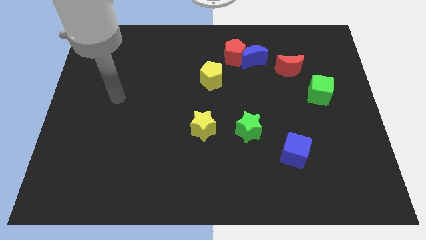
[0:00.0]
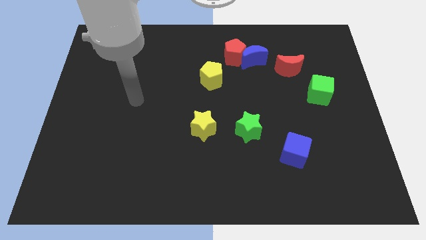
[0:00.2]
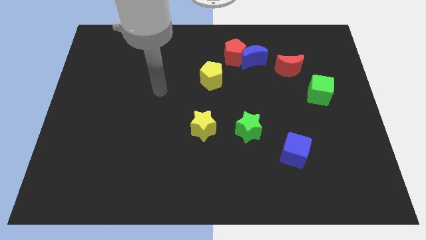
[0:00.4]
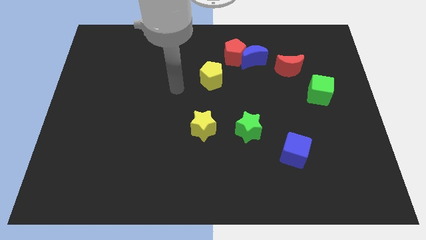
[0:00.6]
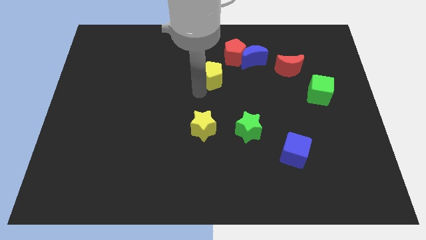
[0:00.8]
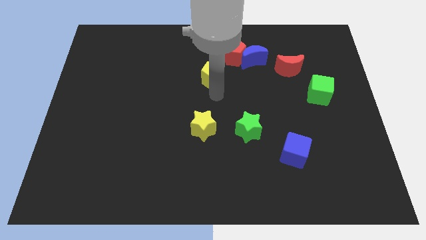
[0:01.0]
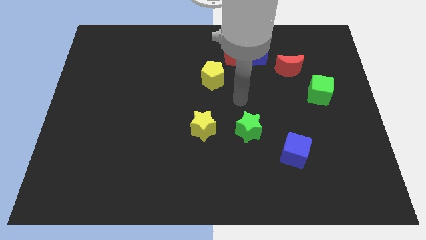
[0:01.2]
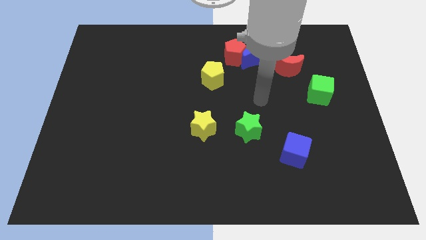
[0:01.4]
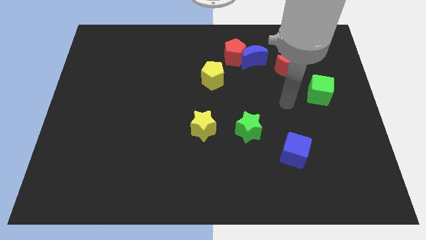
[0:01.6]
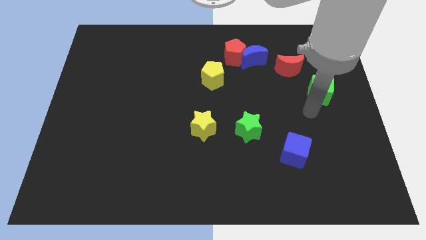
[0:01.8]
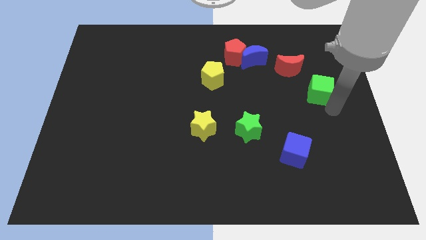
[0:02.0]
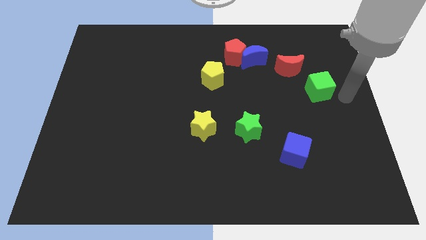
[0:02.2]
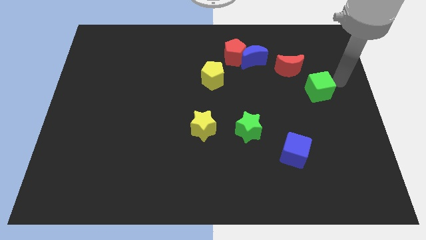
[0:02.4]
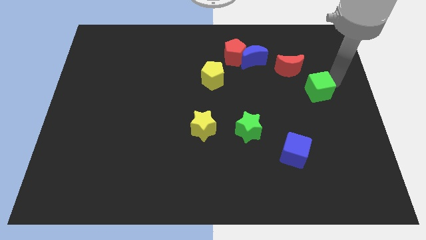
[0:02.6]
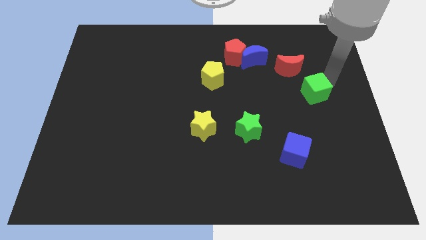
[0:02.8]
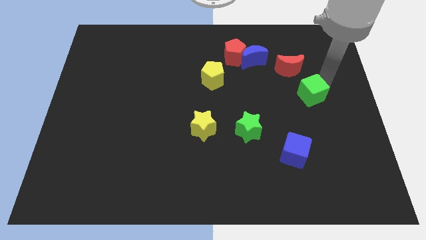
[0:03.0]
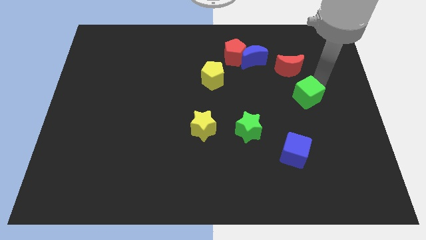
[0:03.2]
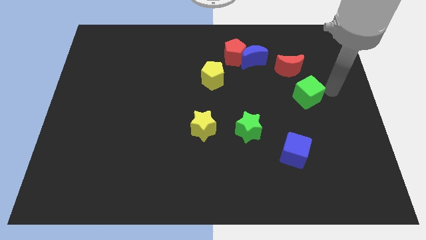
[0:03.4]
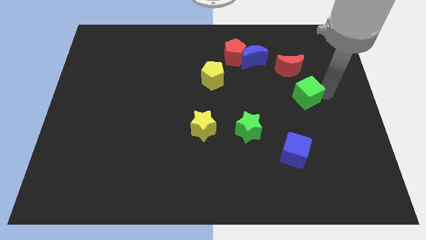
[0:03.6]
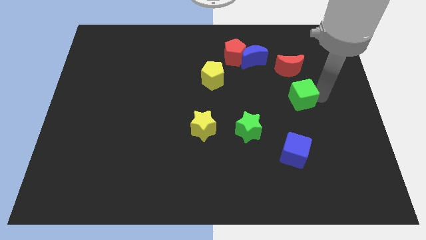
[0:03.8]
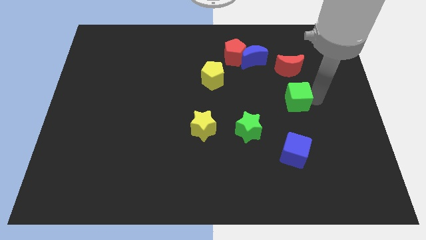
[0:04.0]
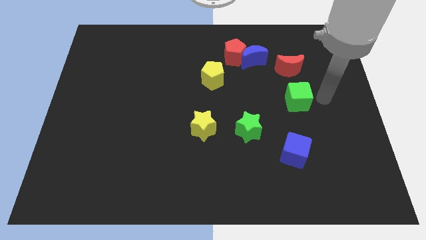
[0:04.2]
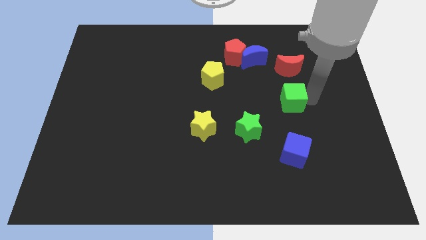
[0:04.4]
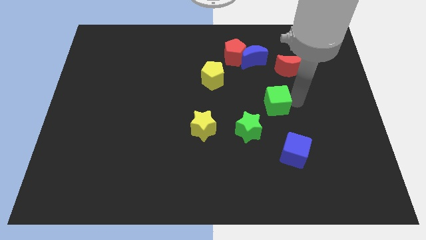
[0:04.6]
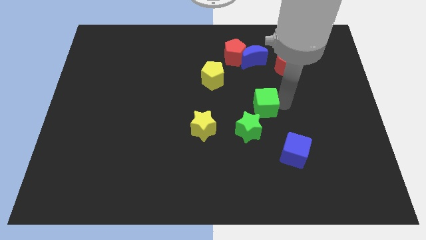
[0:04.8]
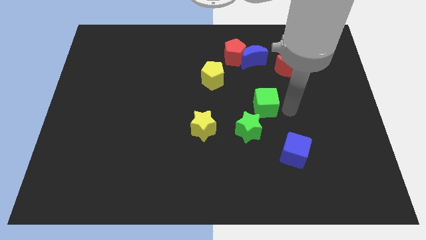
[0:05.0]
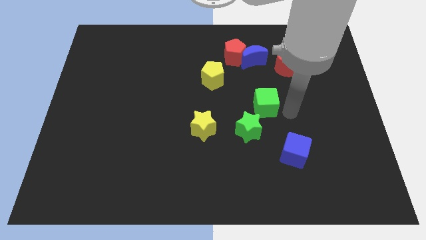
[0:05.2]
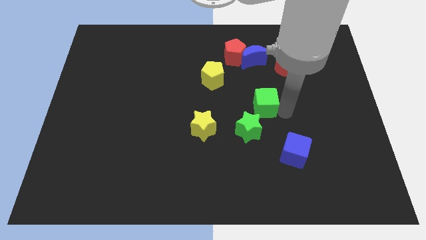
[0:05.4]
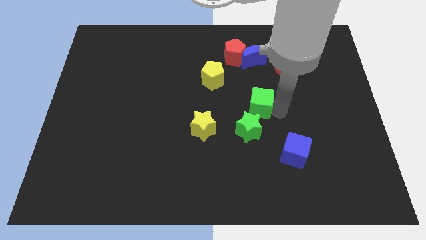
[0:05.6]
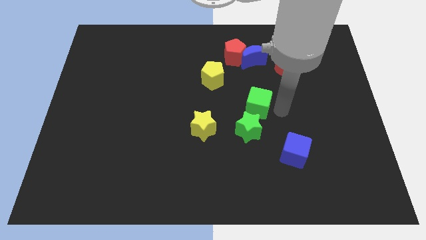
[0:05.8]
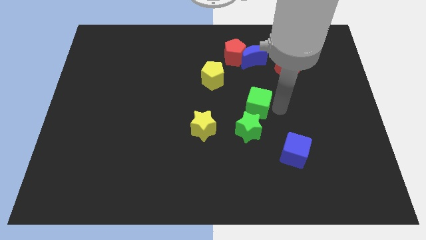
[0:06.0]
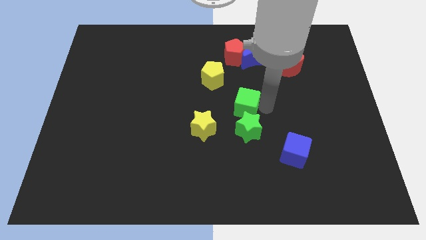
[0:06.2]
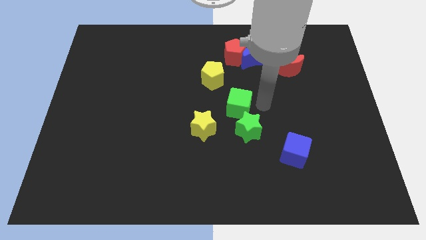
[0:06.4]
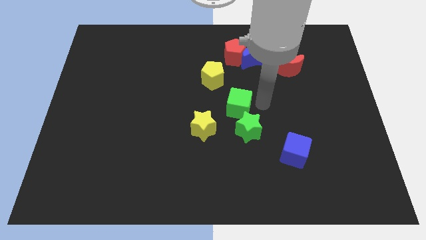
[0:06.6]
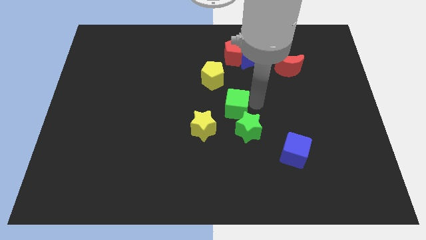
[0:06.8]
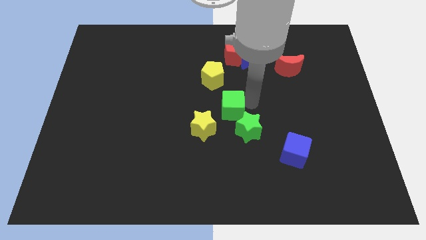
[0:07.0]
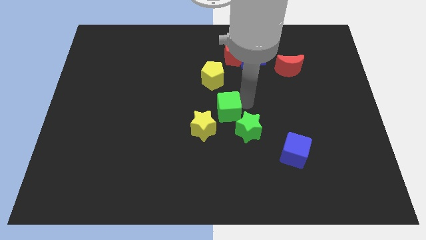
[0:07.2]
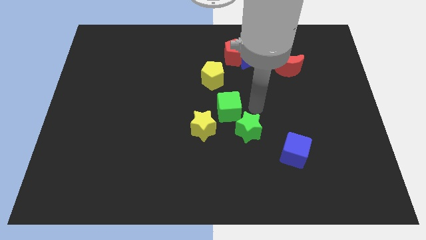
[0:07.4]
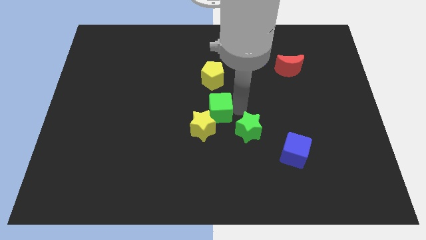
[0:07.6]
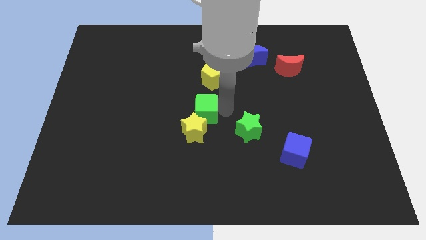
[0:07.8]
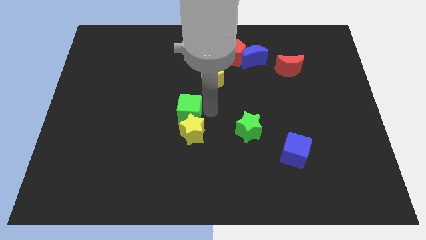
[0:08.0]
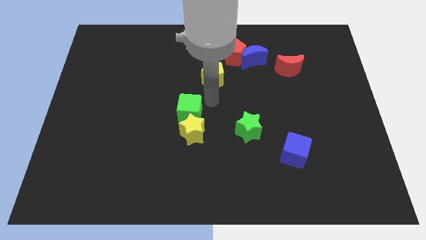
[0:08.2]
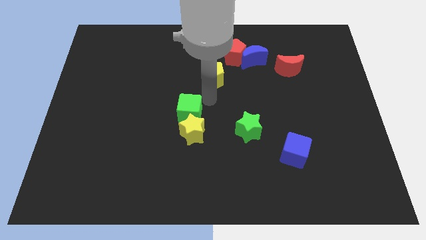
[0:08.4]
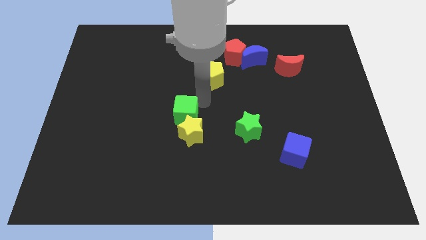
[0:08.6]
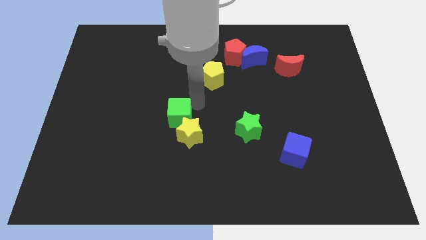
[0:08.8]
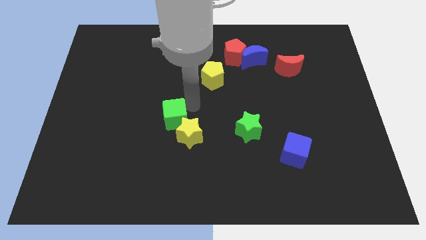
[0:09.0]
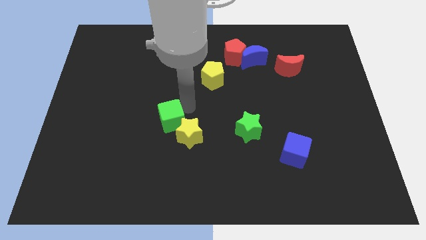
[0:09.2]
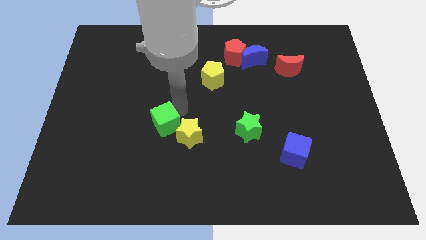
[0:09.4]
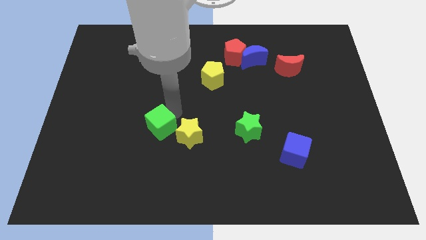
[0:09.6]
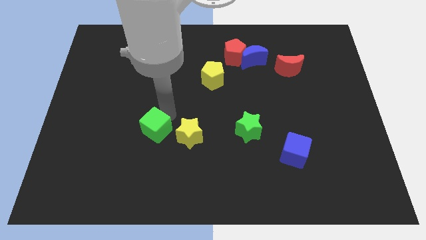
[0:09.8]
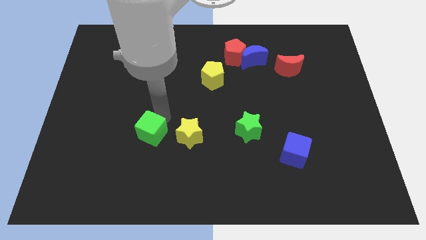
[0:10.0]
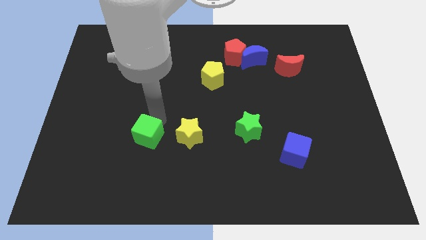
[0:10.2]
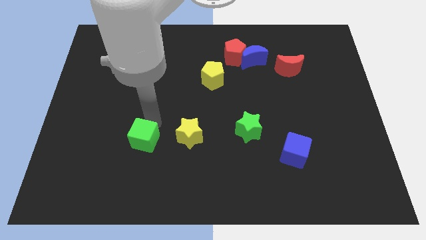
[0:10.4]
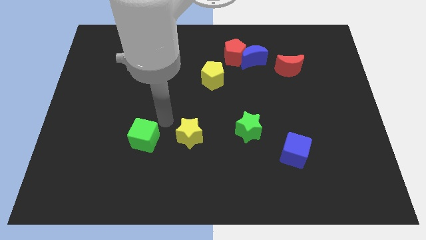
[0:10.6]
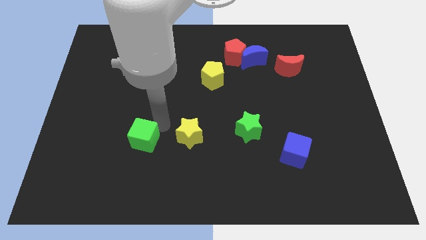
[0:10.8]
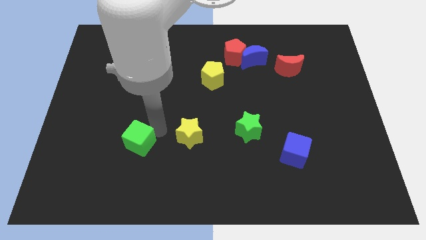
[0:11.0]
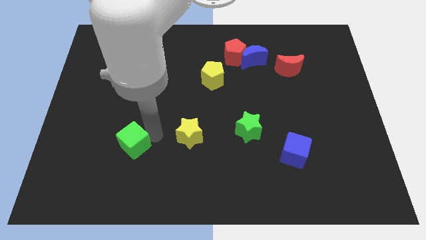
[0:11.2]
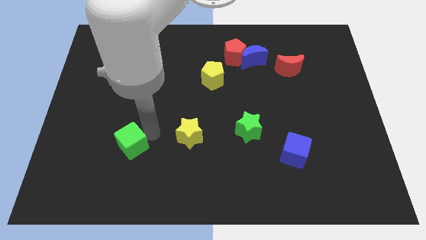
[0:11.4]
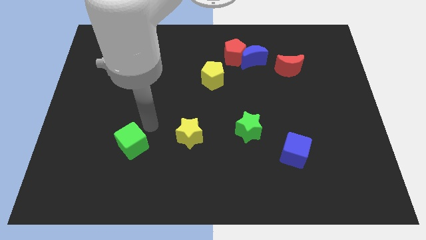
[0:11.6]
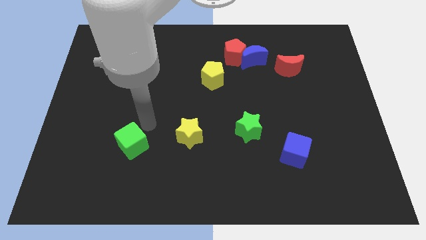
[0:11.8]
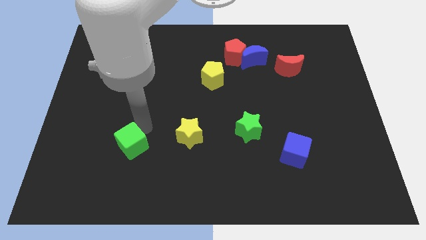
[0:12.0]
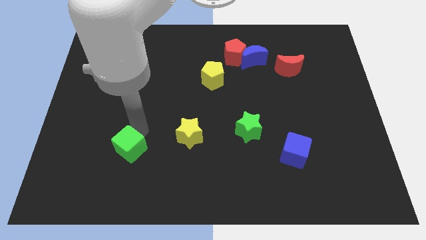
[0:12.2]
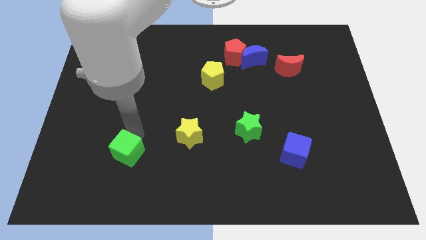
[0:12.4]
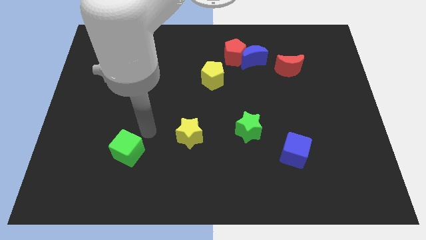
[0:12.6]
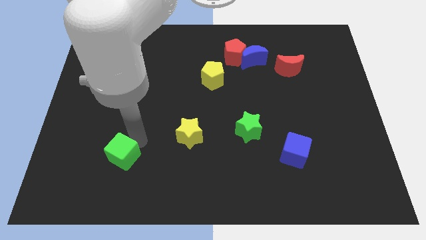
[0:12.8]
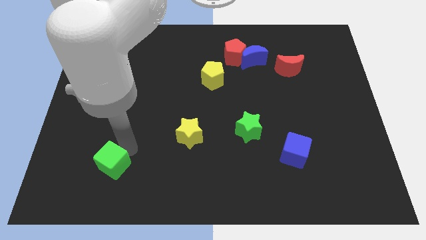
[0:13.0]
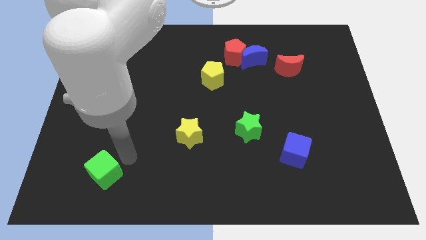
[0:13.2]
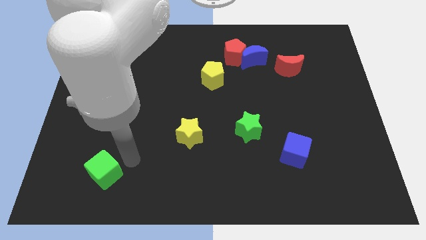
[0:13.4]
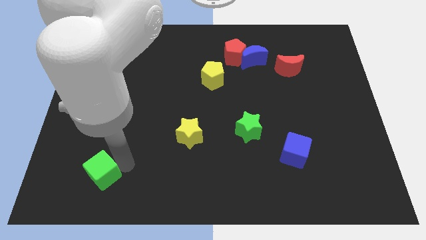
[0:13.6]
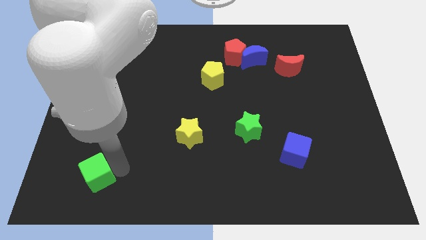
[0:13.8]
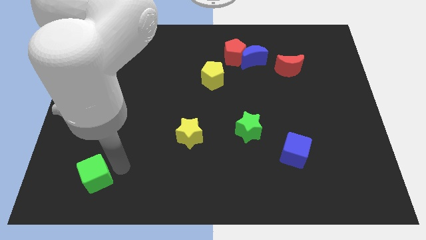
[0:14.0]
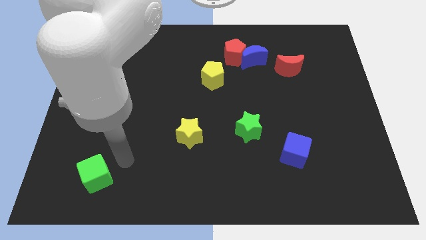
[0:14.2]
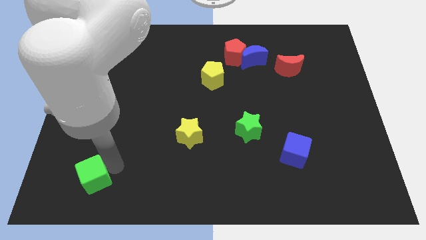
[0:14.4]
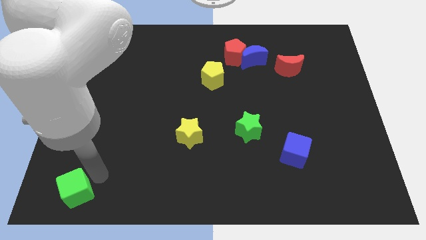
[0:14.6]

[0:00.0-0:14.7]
put the green cube to the bottom left corner

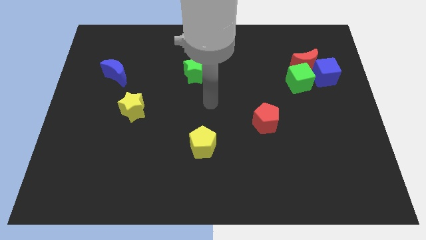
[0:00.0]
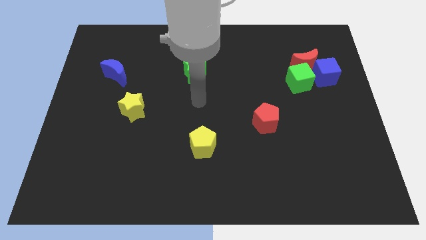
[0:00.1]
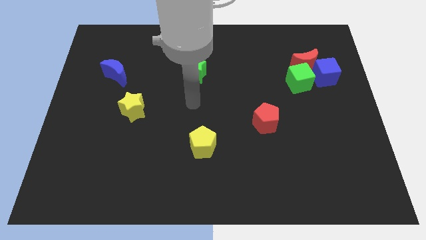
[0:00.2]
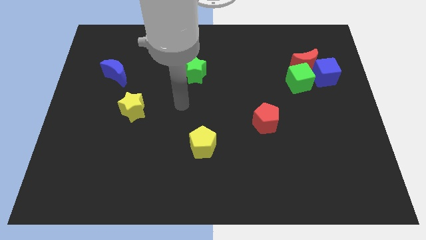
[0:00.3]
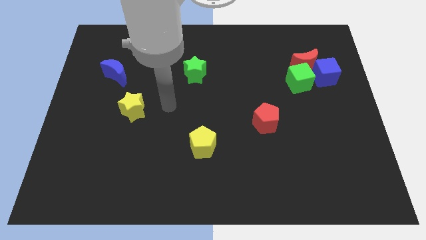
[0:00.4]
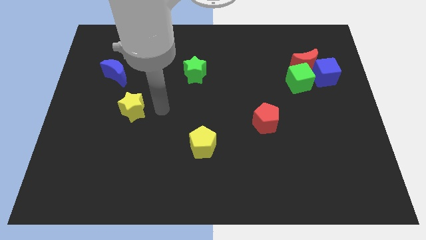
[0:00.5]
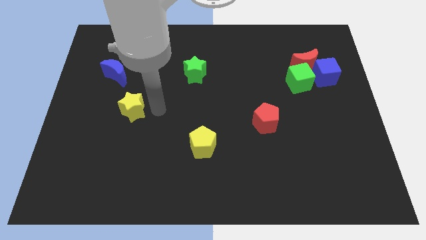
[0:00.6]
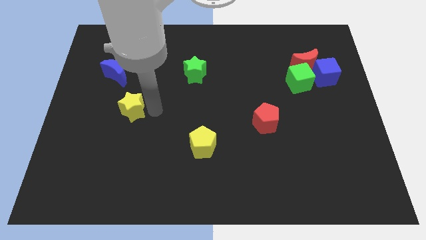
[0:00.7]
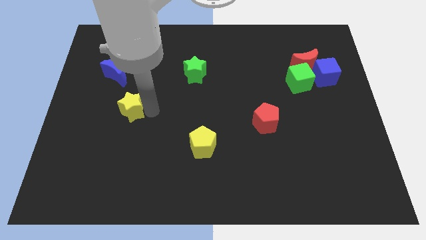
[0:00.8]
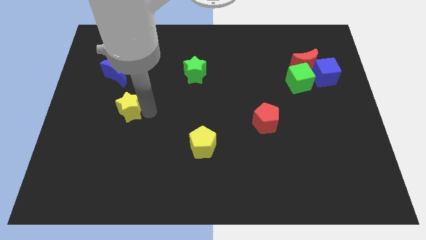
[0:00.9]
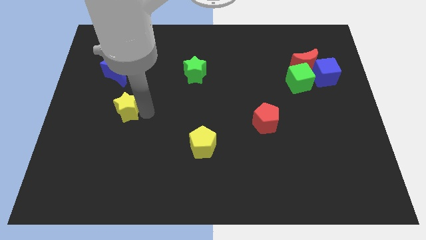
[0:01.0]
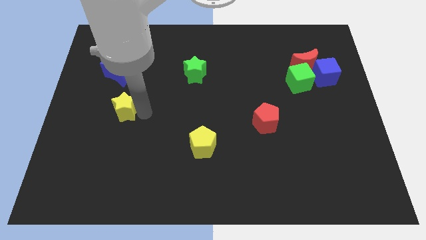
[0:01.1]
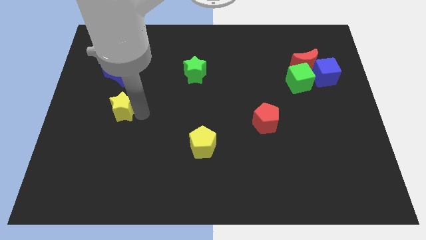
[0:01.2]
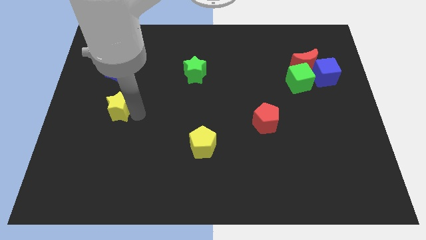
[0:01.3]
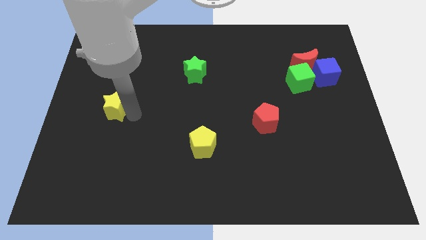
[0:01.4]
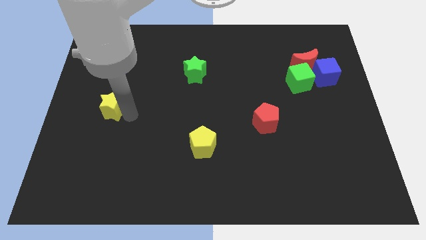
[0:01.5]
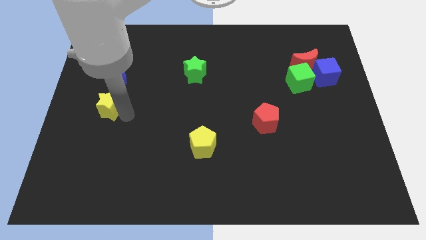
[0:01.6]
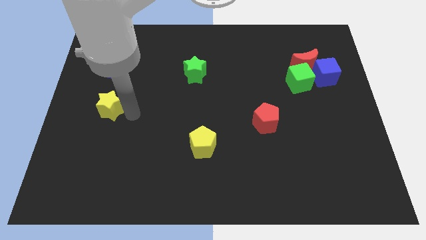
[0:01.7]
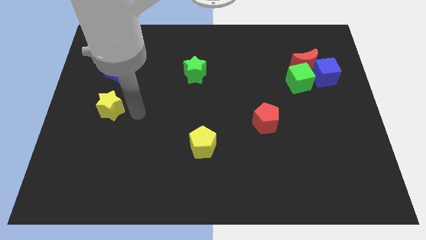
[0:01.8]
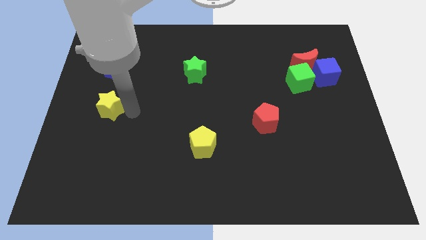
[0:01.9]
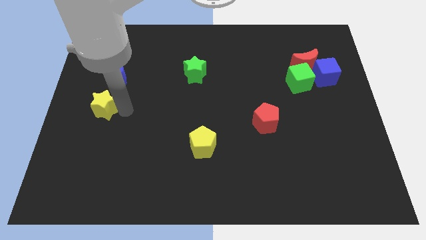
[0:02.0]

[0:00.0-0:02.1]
push the yellow star to the left side of the board
